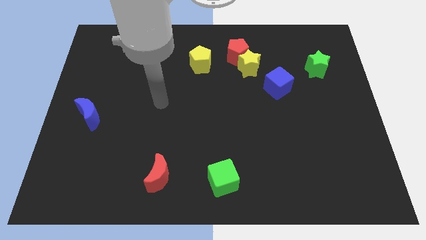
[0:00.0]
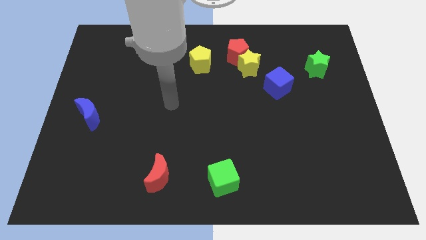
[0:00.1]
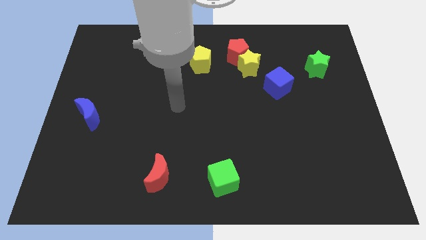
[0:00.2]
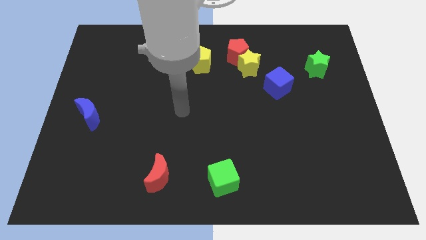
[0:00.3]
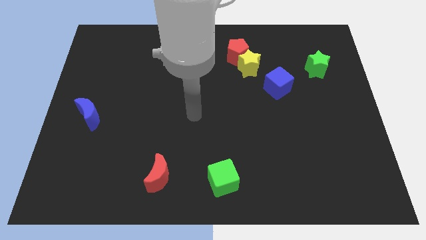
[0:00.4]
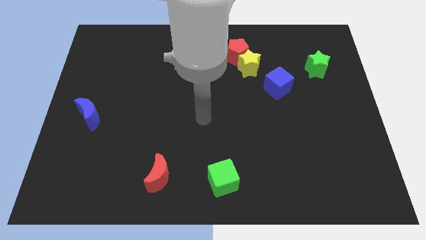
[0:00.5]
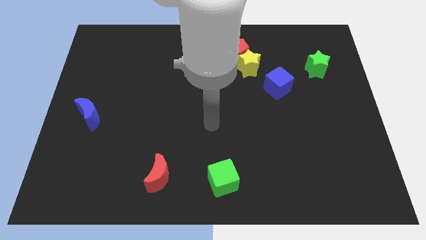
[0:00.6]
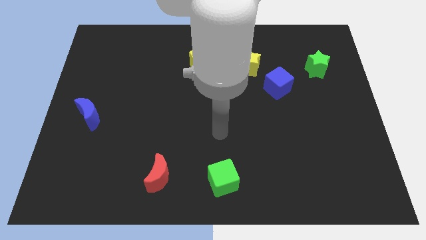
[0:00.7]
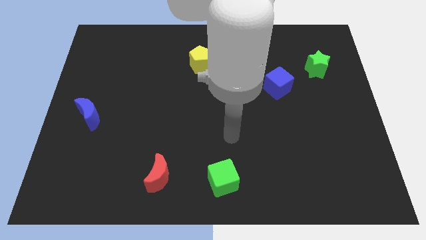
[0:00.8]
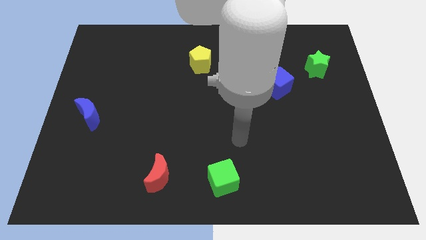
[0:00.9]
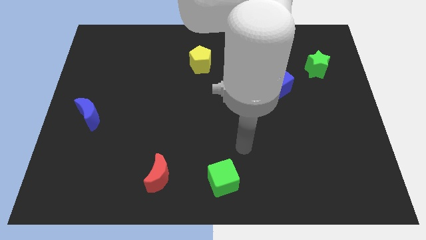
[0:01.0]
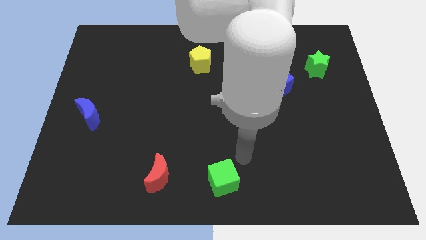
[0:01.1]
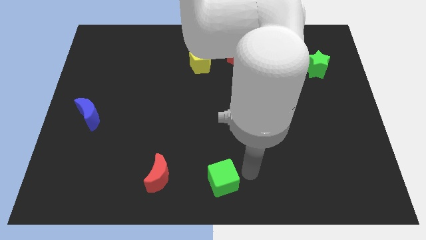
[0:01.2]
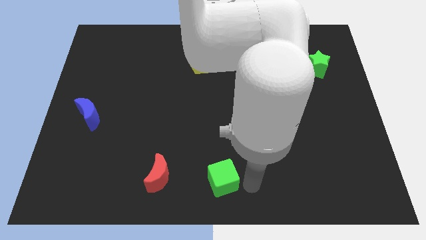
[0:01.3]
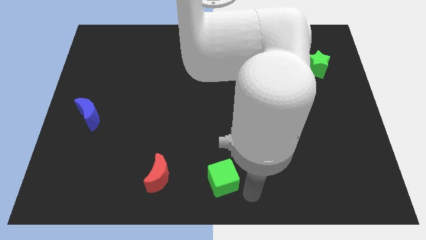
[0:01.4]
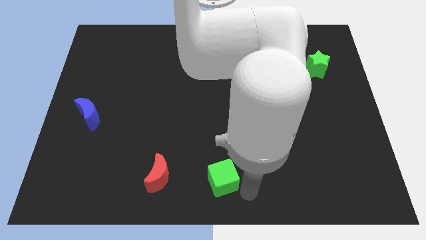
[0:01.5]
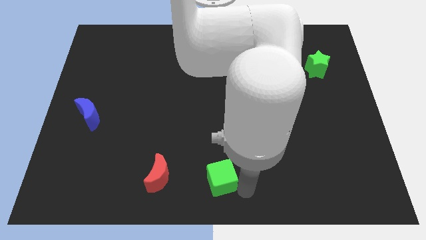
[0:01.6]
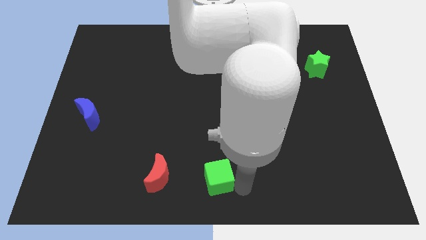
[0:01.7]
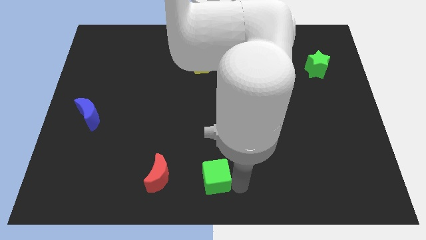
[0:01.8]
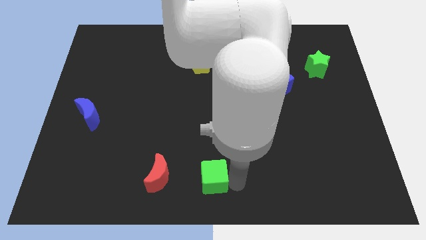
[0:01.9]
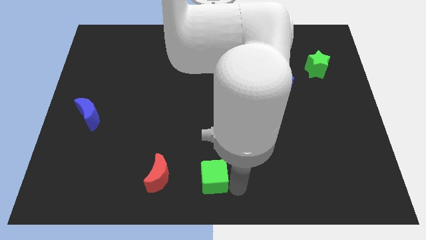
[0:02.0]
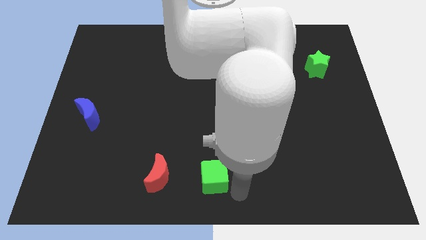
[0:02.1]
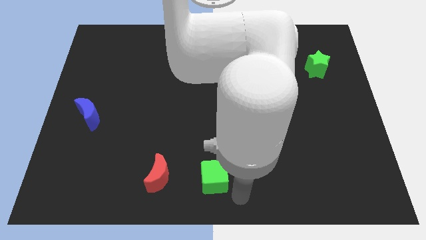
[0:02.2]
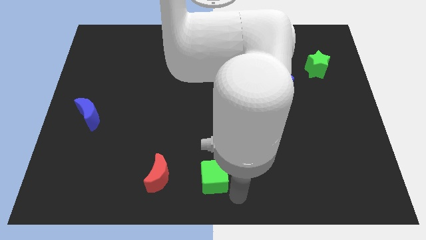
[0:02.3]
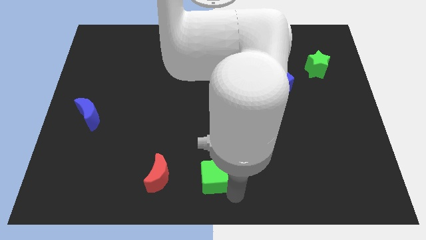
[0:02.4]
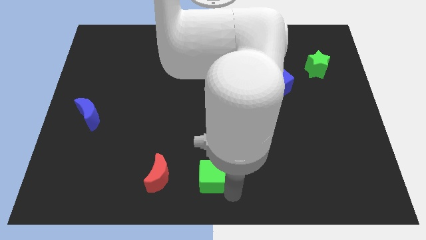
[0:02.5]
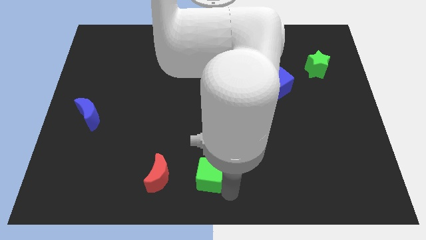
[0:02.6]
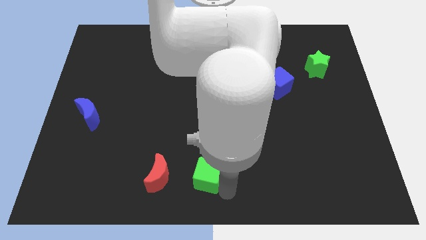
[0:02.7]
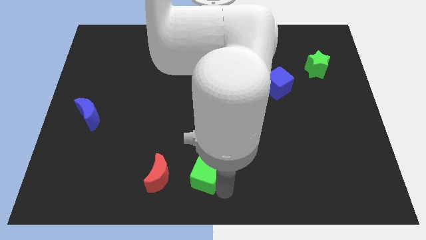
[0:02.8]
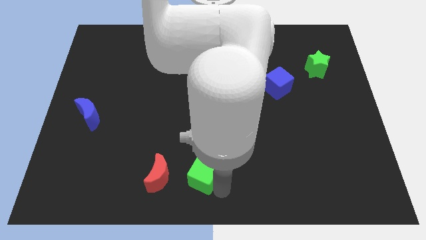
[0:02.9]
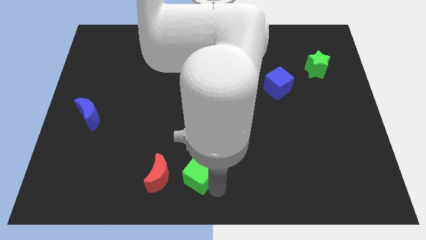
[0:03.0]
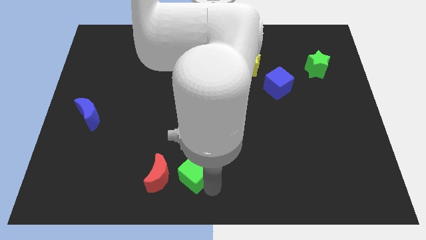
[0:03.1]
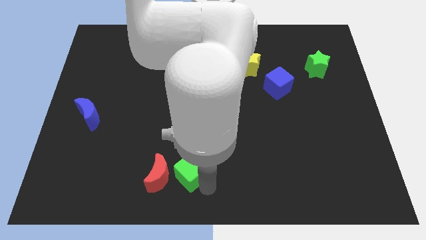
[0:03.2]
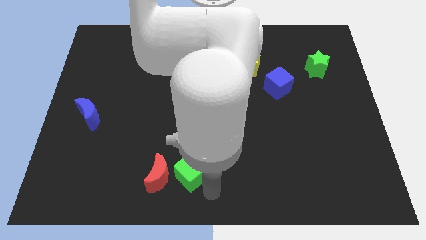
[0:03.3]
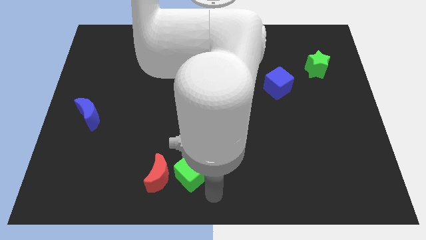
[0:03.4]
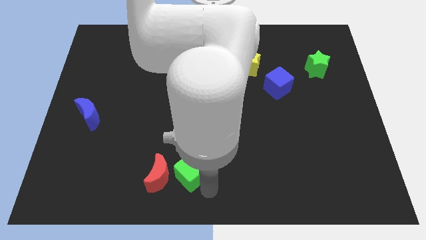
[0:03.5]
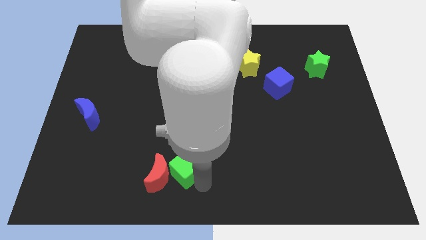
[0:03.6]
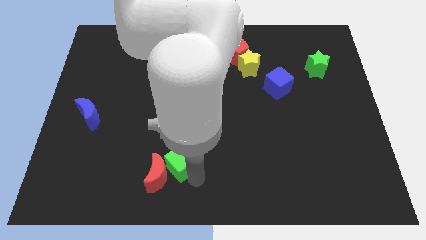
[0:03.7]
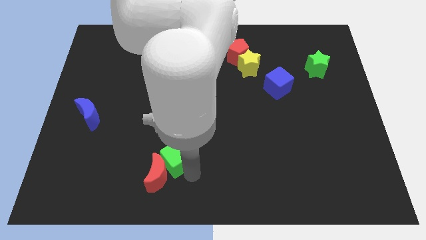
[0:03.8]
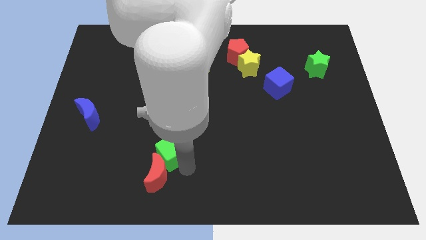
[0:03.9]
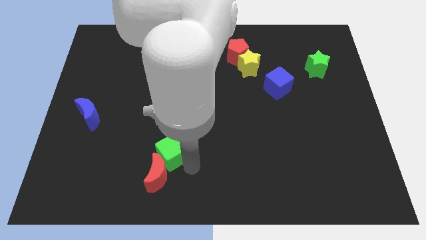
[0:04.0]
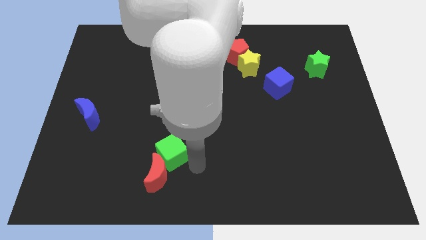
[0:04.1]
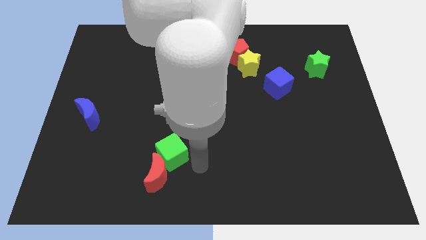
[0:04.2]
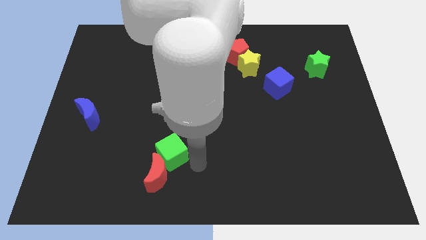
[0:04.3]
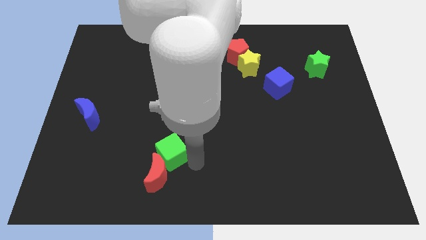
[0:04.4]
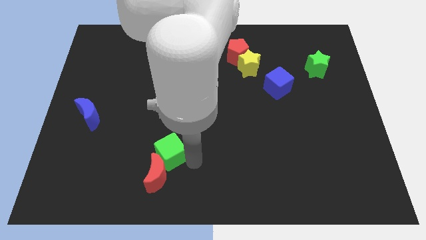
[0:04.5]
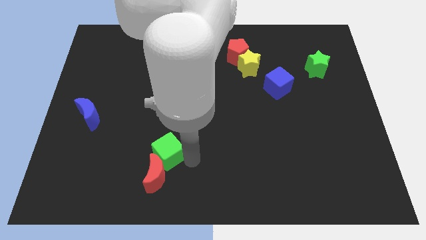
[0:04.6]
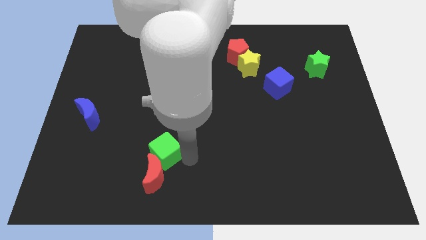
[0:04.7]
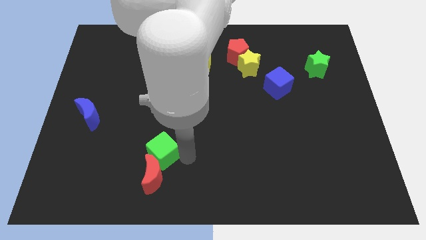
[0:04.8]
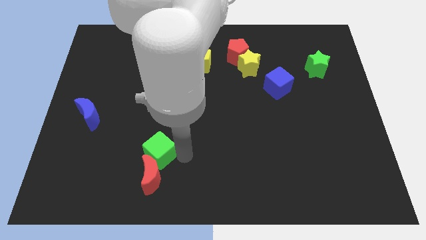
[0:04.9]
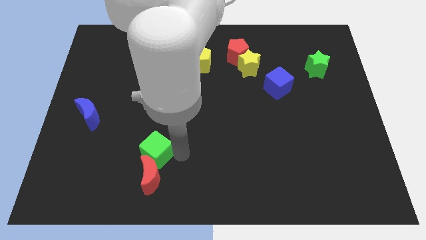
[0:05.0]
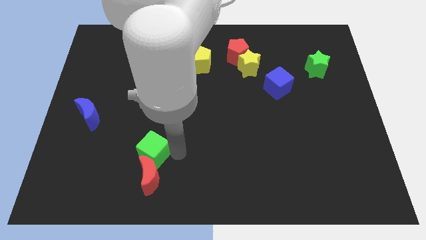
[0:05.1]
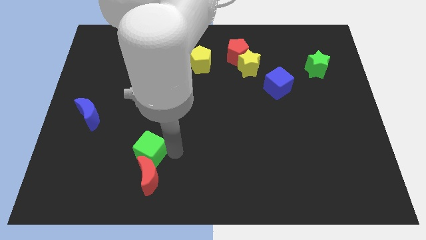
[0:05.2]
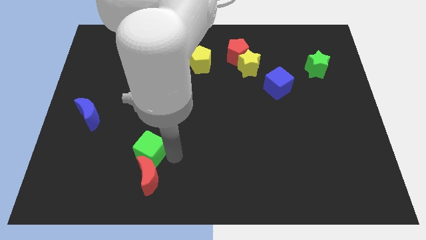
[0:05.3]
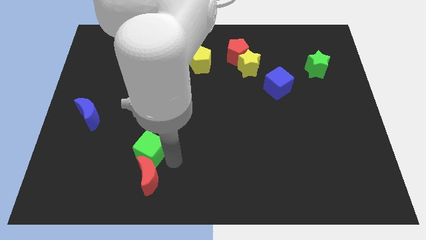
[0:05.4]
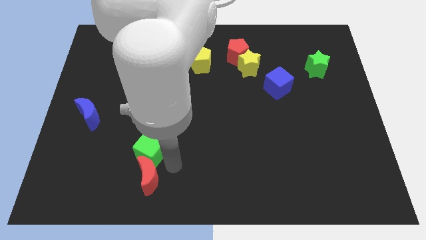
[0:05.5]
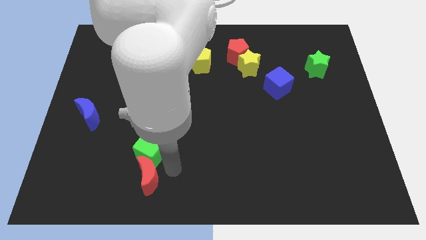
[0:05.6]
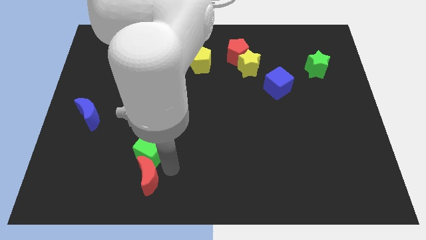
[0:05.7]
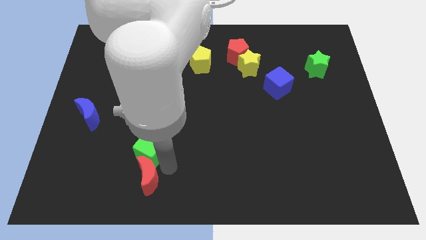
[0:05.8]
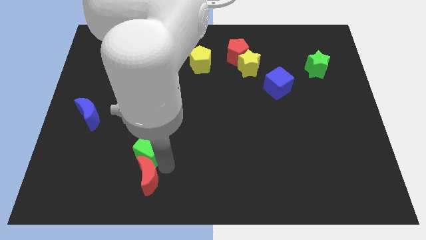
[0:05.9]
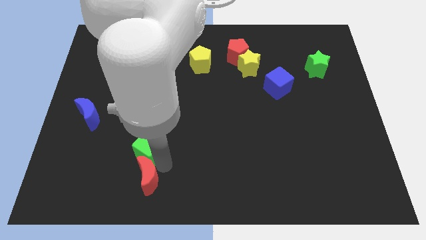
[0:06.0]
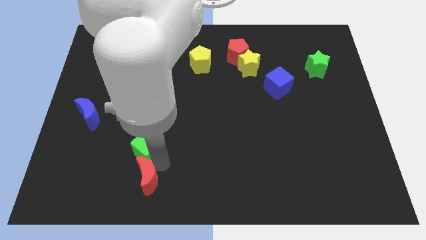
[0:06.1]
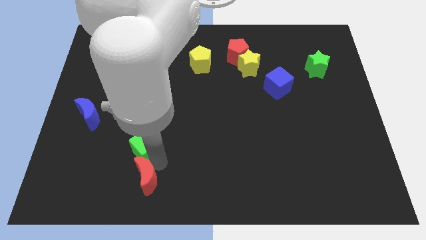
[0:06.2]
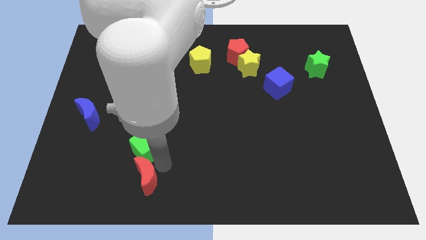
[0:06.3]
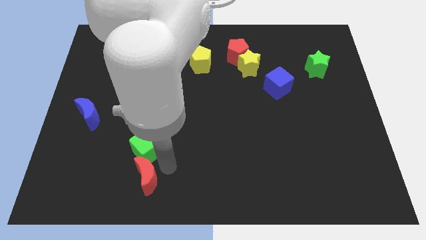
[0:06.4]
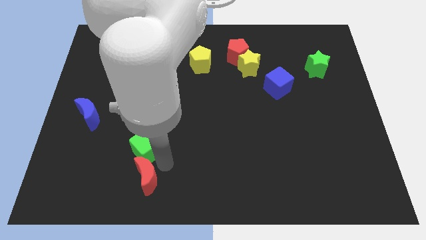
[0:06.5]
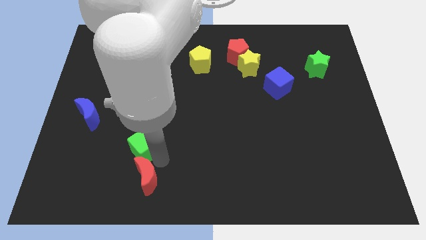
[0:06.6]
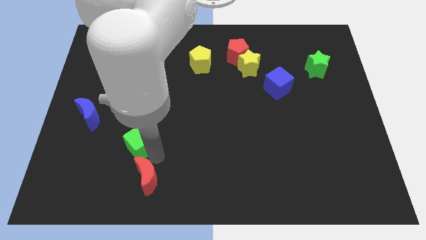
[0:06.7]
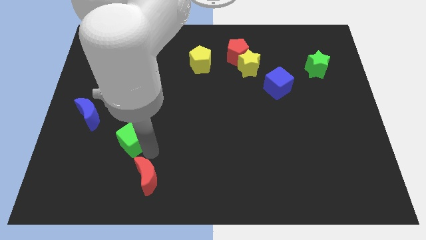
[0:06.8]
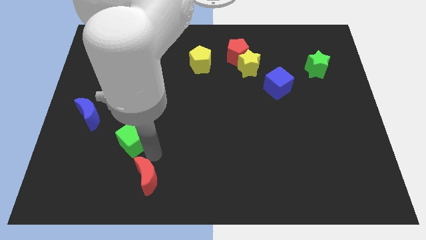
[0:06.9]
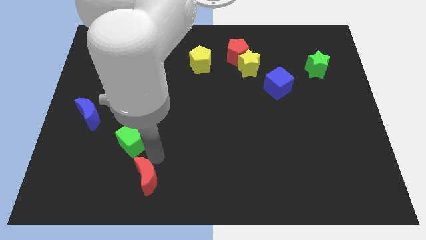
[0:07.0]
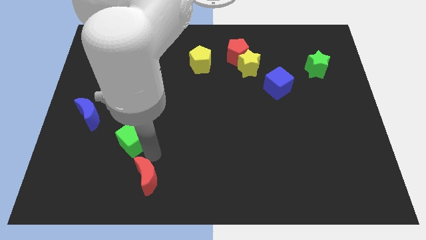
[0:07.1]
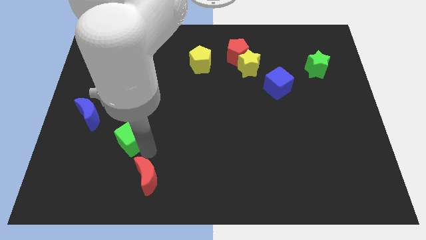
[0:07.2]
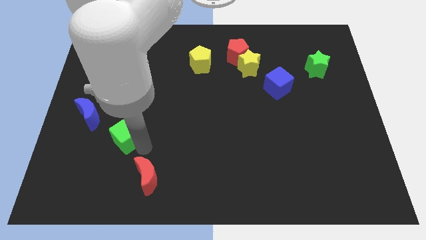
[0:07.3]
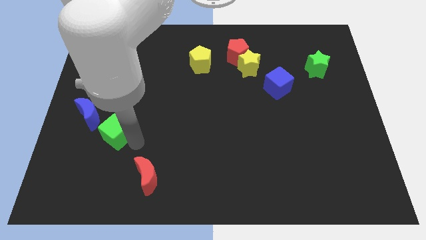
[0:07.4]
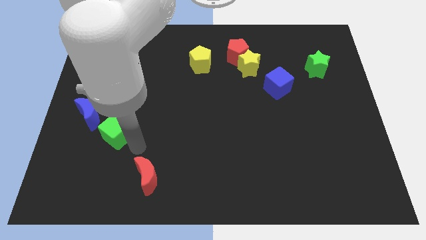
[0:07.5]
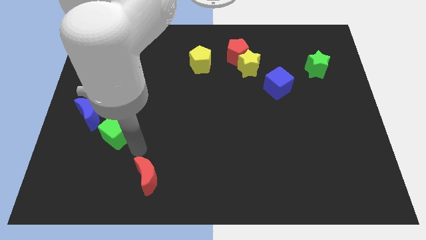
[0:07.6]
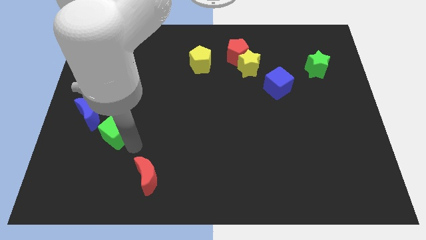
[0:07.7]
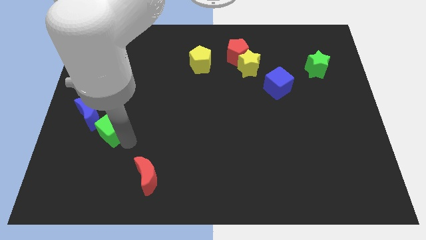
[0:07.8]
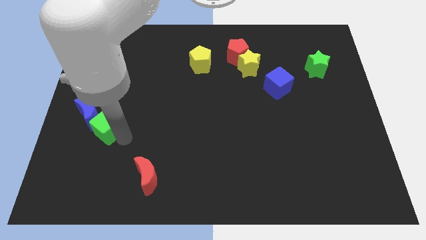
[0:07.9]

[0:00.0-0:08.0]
slide the green cube next to the blue moon
